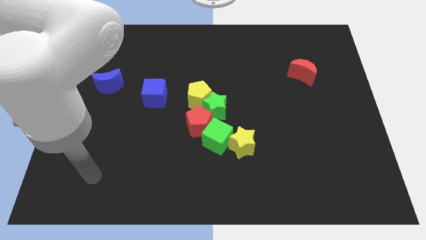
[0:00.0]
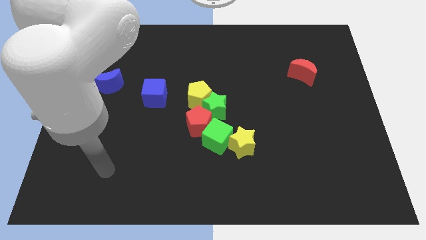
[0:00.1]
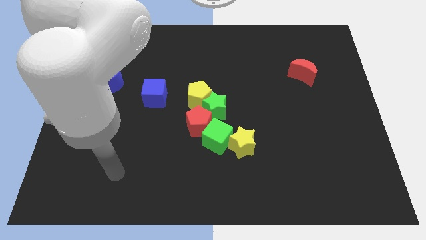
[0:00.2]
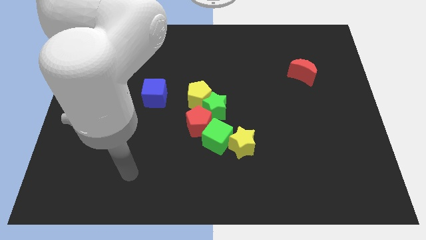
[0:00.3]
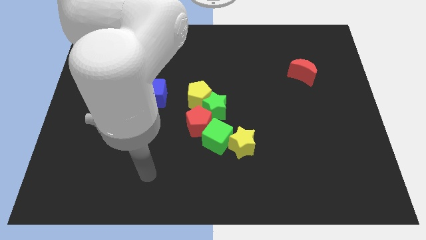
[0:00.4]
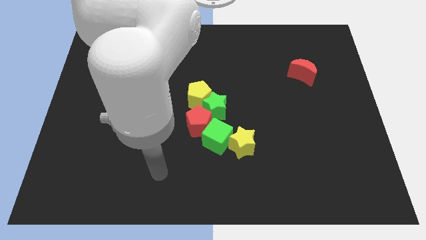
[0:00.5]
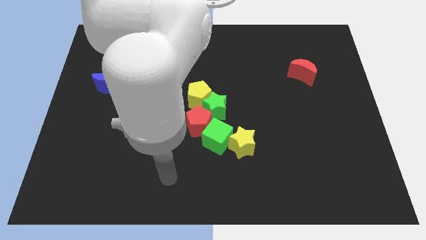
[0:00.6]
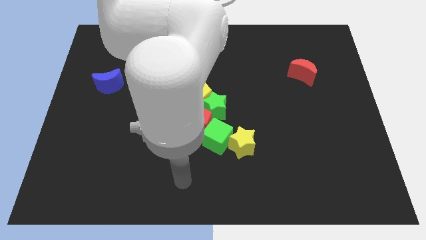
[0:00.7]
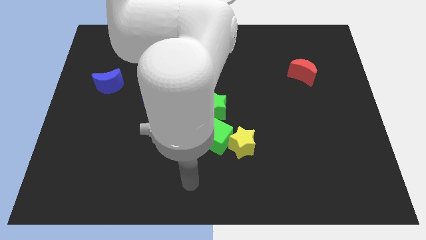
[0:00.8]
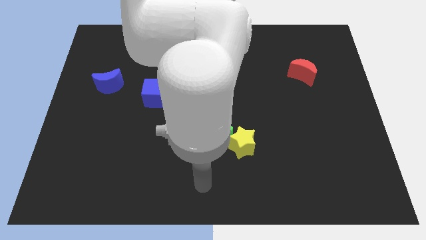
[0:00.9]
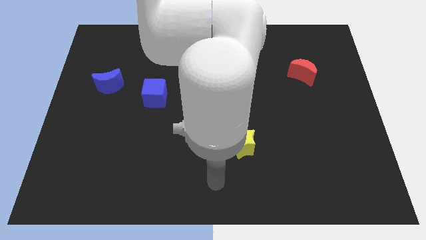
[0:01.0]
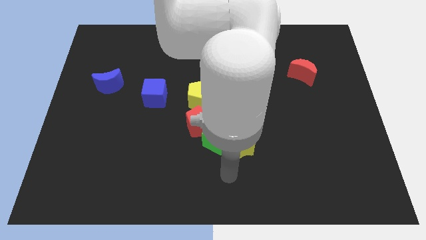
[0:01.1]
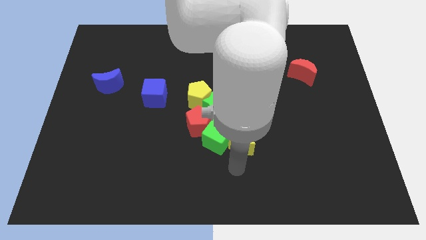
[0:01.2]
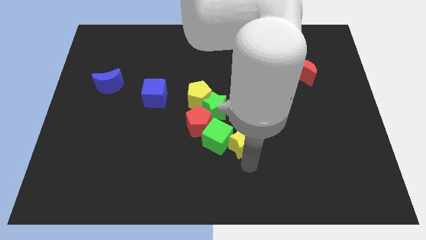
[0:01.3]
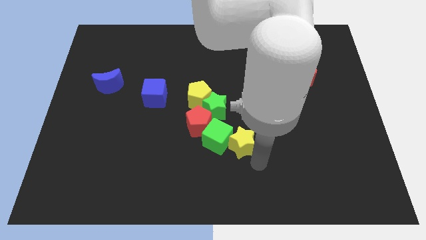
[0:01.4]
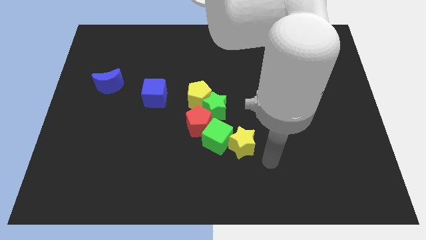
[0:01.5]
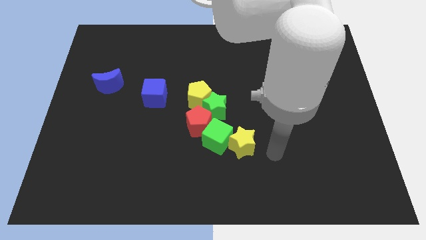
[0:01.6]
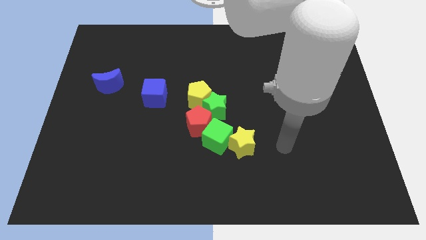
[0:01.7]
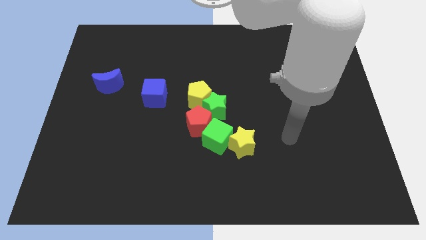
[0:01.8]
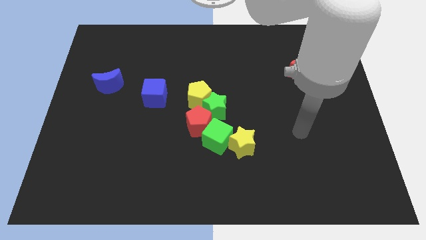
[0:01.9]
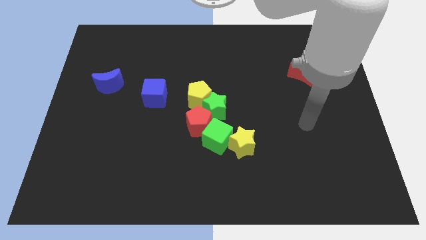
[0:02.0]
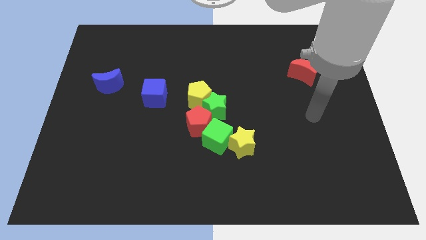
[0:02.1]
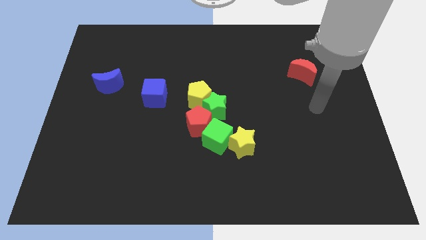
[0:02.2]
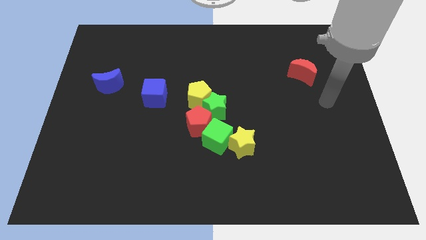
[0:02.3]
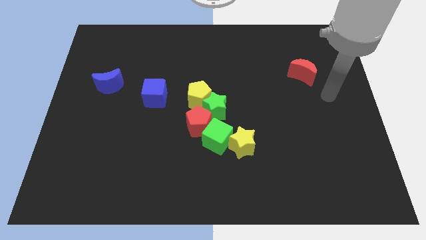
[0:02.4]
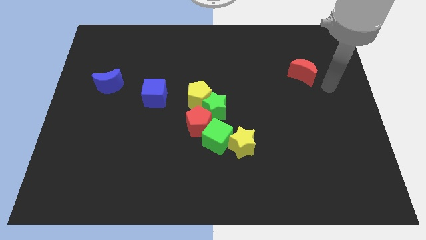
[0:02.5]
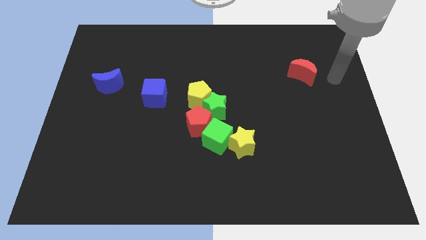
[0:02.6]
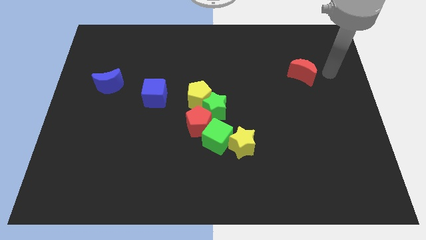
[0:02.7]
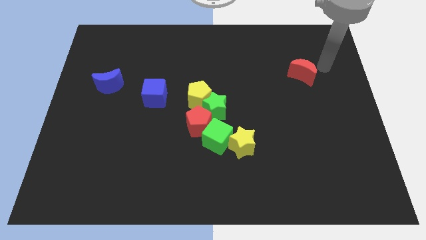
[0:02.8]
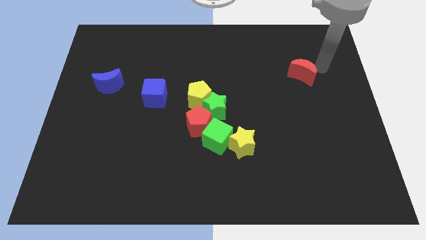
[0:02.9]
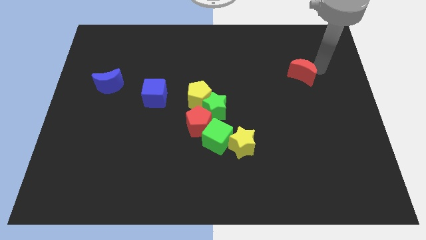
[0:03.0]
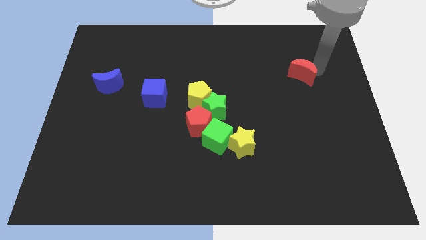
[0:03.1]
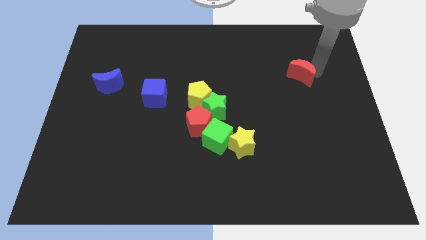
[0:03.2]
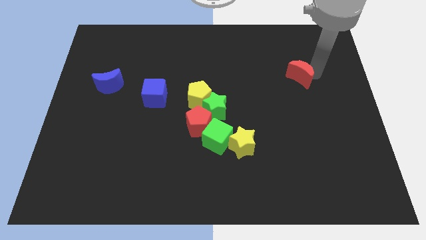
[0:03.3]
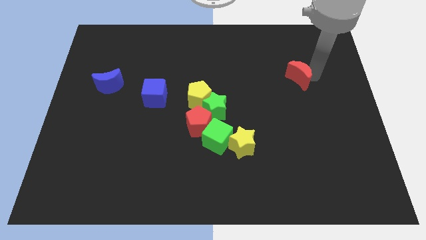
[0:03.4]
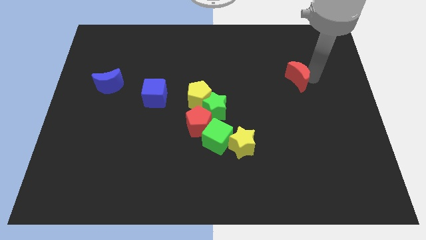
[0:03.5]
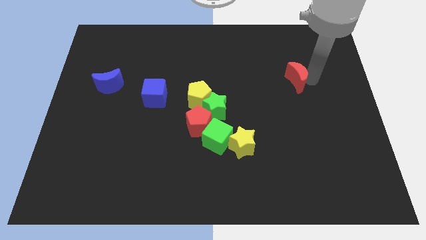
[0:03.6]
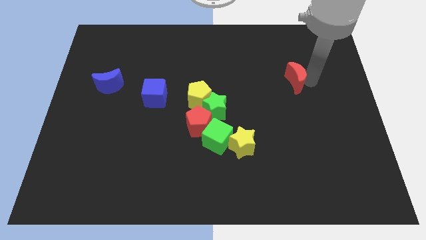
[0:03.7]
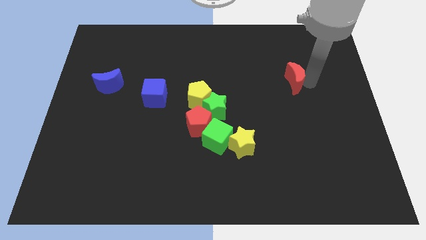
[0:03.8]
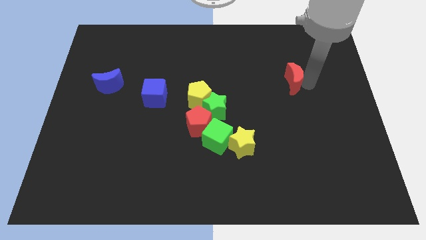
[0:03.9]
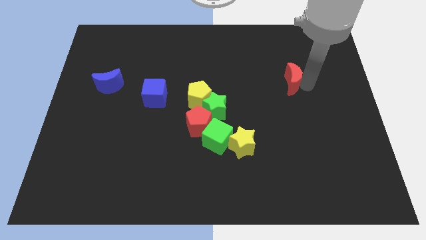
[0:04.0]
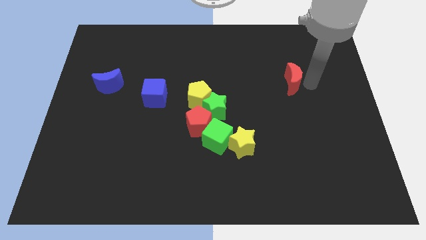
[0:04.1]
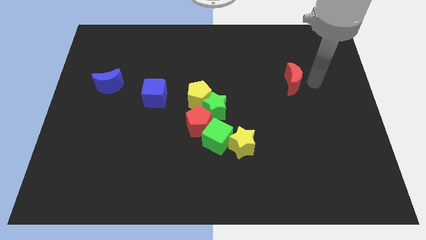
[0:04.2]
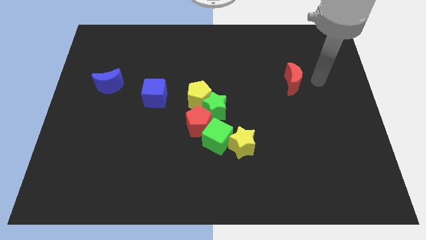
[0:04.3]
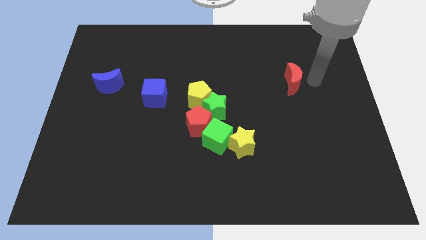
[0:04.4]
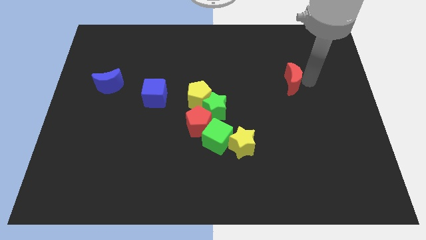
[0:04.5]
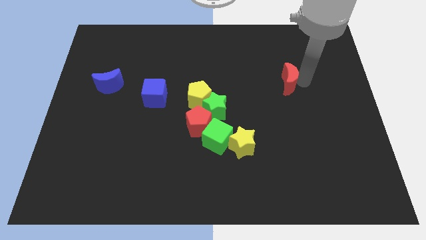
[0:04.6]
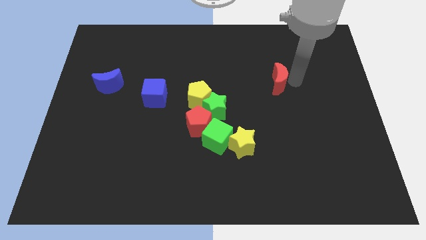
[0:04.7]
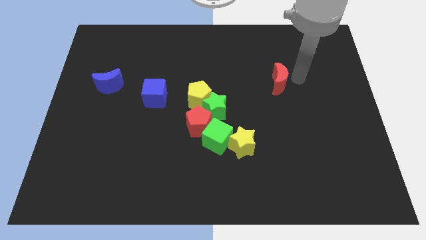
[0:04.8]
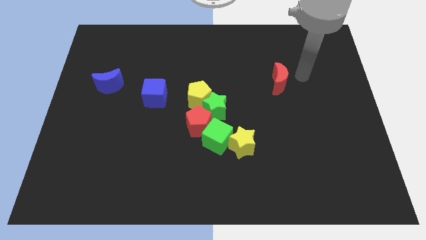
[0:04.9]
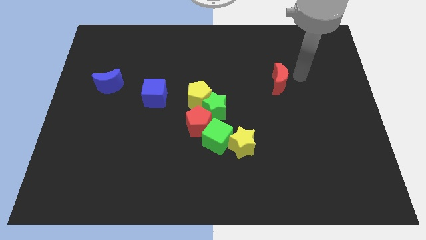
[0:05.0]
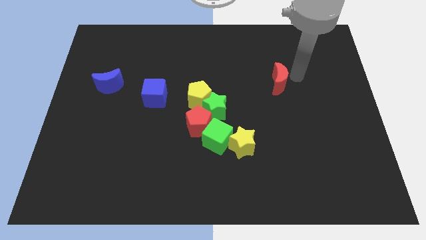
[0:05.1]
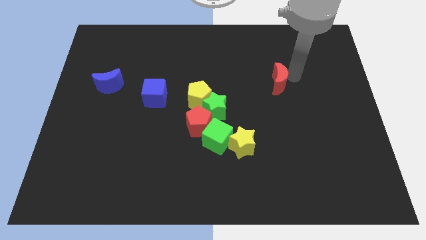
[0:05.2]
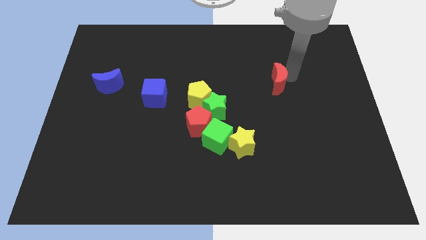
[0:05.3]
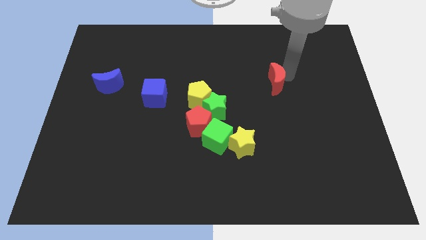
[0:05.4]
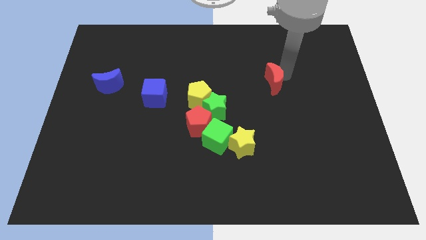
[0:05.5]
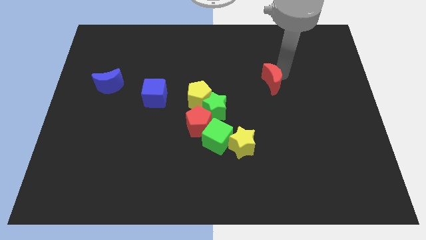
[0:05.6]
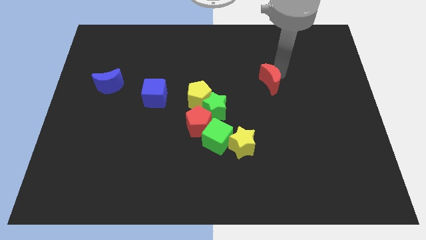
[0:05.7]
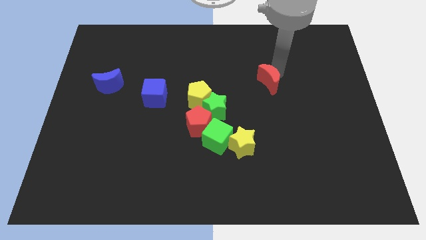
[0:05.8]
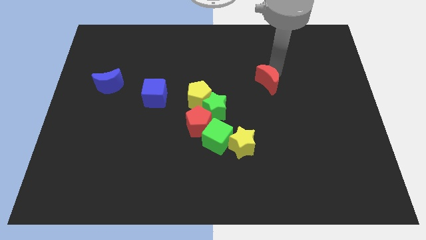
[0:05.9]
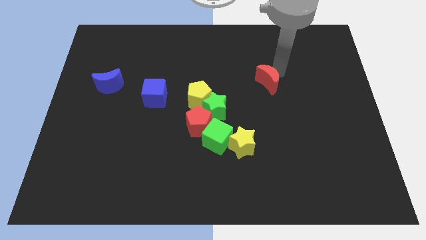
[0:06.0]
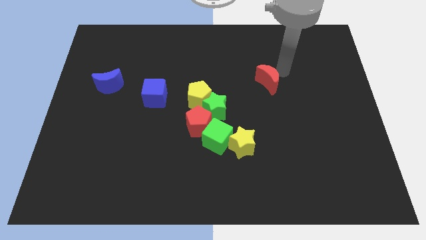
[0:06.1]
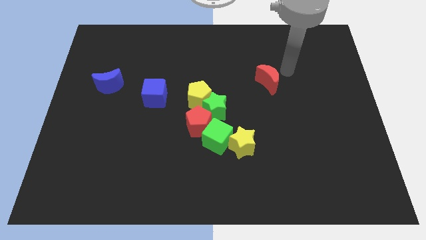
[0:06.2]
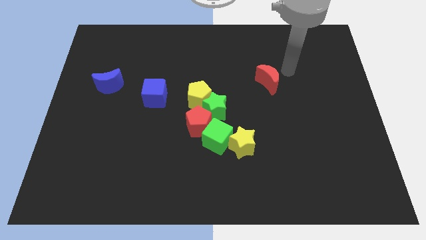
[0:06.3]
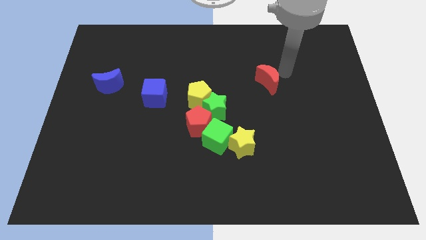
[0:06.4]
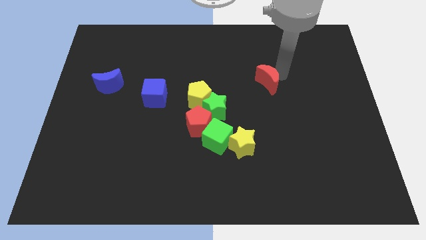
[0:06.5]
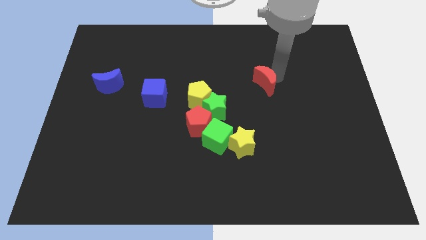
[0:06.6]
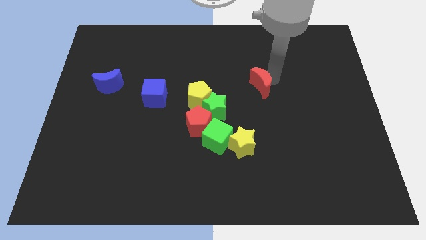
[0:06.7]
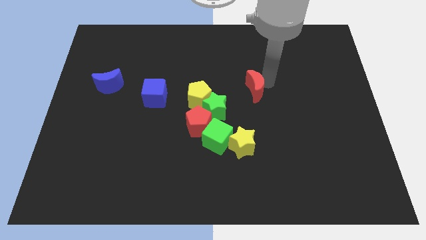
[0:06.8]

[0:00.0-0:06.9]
slide the red moon to the top right of the green star
